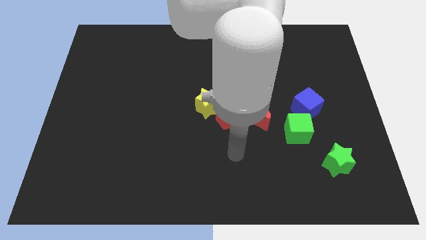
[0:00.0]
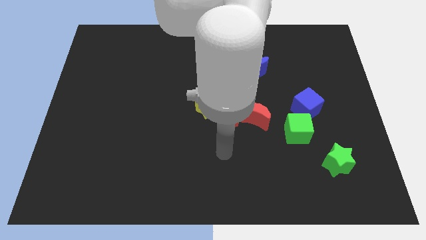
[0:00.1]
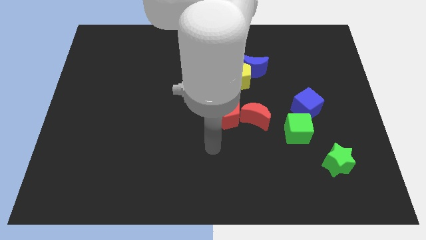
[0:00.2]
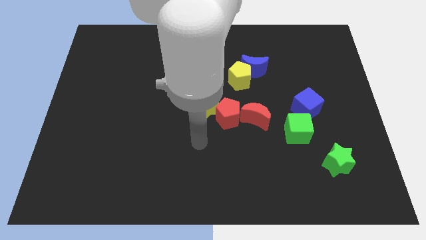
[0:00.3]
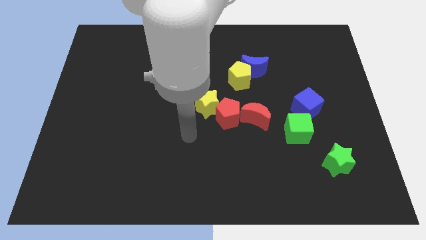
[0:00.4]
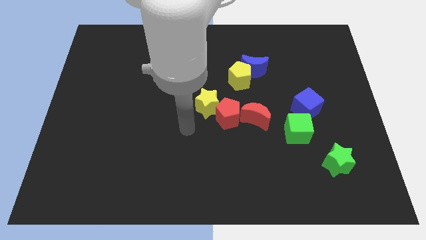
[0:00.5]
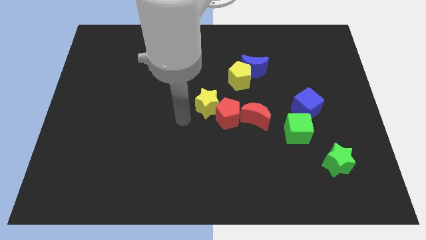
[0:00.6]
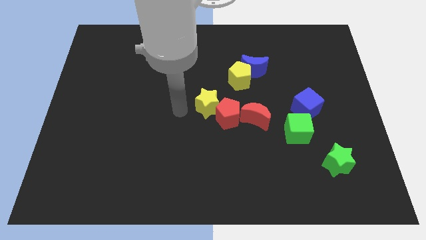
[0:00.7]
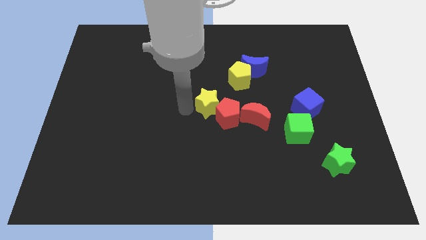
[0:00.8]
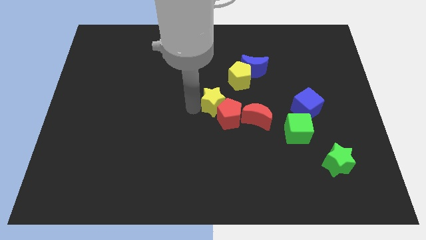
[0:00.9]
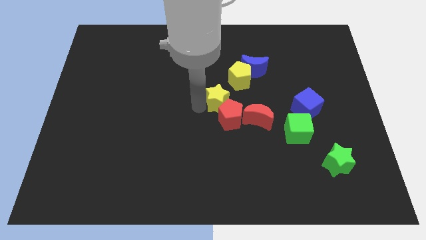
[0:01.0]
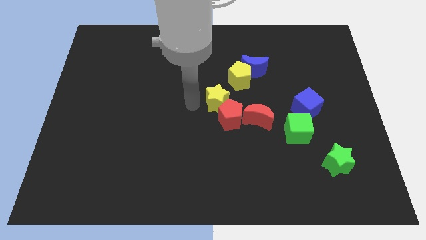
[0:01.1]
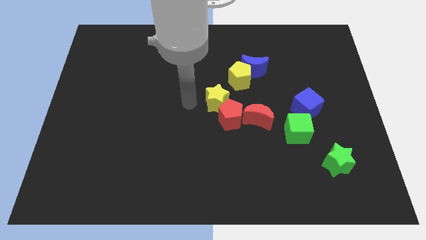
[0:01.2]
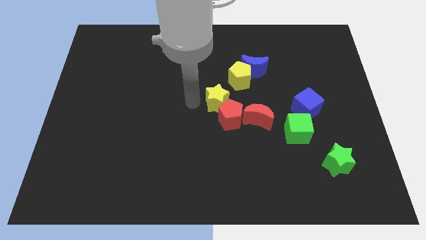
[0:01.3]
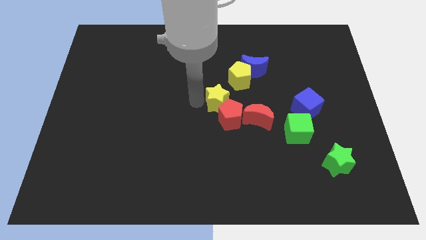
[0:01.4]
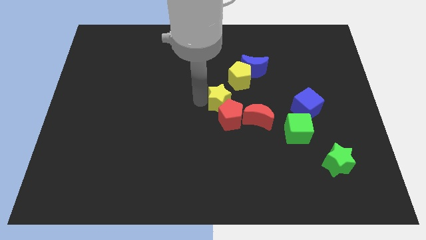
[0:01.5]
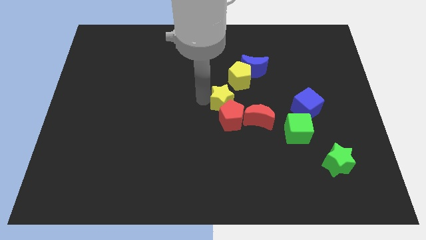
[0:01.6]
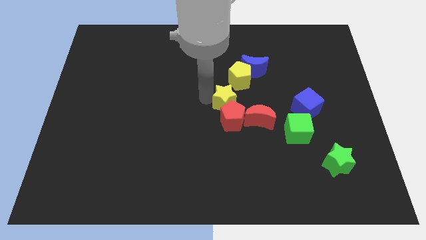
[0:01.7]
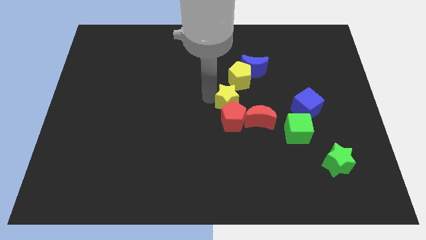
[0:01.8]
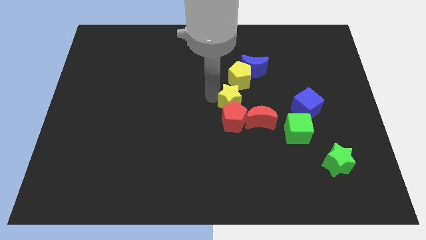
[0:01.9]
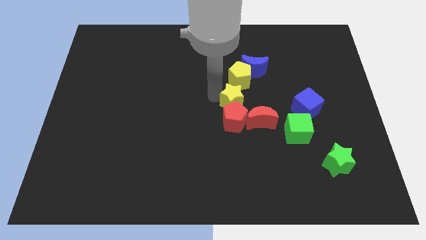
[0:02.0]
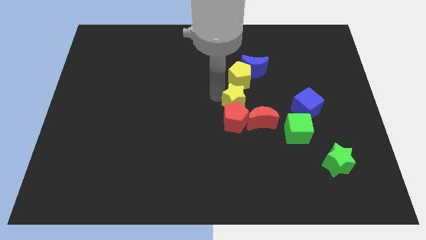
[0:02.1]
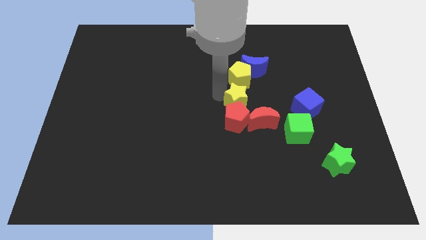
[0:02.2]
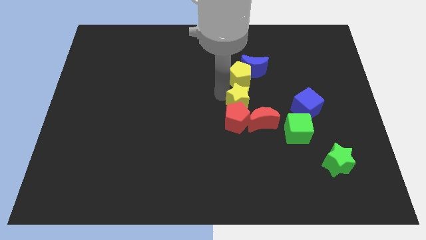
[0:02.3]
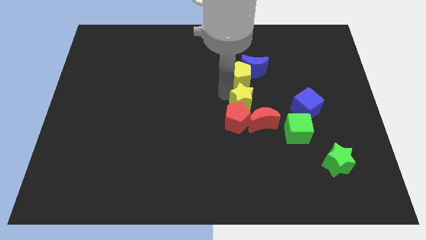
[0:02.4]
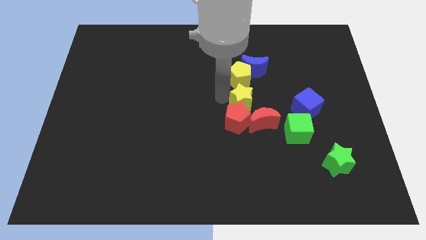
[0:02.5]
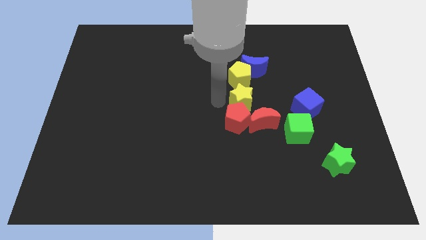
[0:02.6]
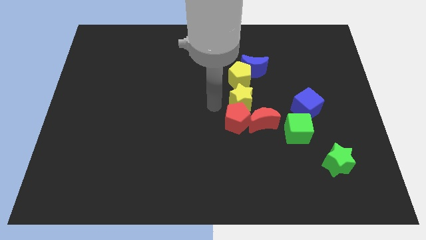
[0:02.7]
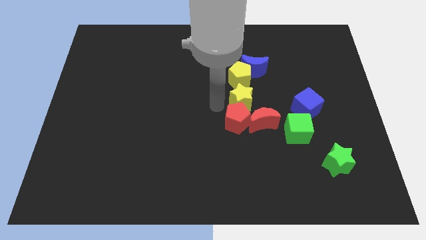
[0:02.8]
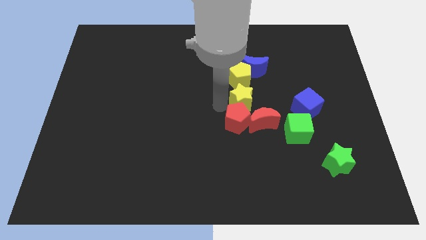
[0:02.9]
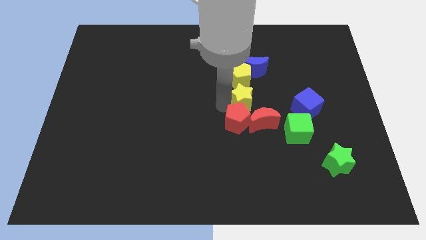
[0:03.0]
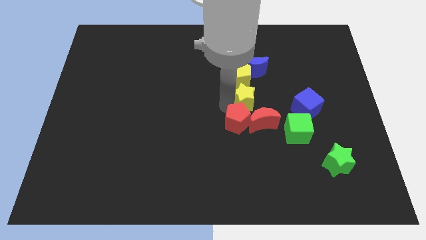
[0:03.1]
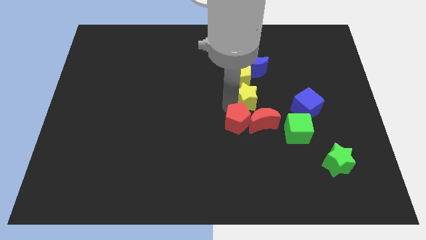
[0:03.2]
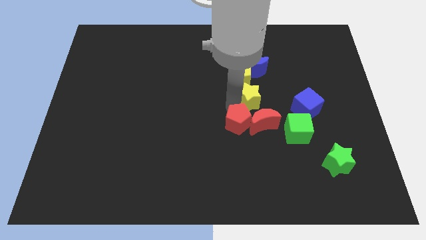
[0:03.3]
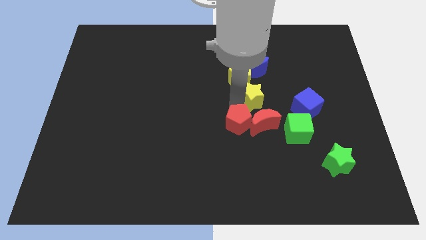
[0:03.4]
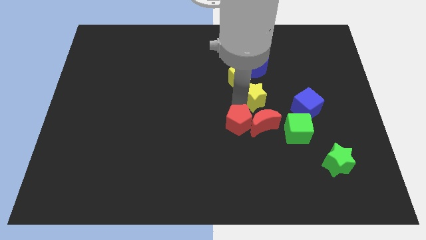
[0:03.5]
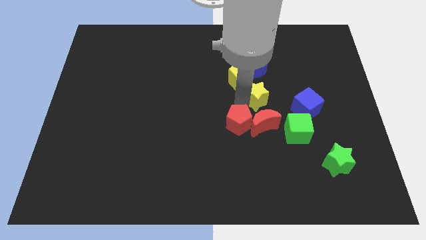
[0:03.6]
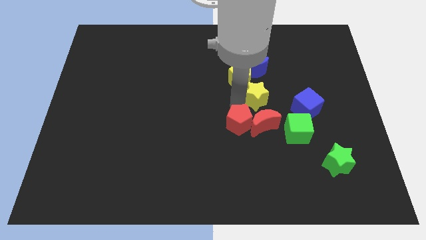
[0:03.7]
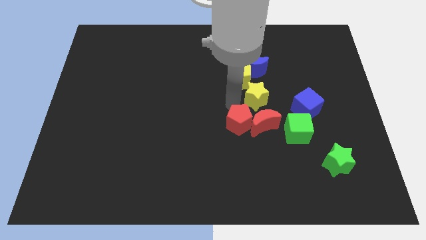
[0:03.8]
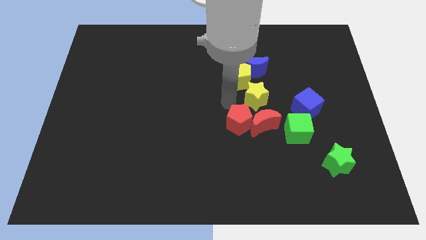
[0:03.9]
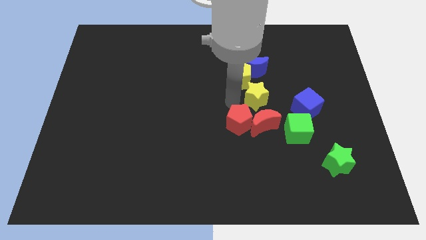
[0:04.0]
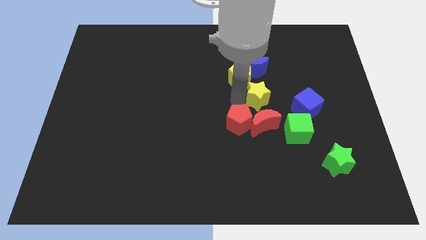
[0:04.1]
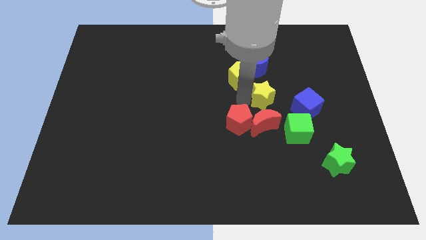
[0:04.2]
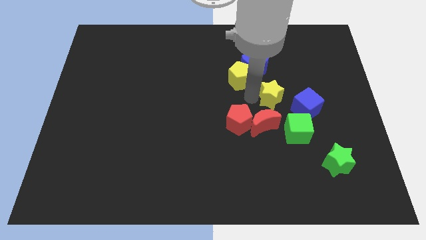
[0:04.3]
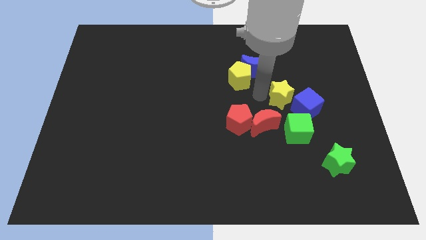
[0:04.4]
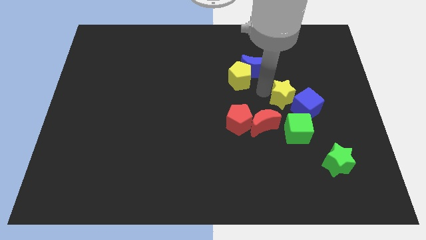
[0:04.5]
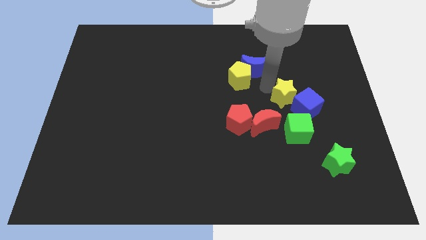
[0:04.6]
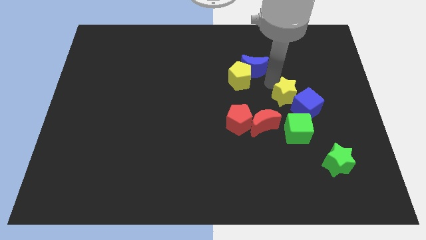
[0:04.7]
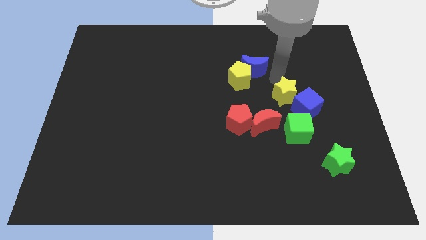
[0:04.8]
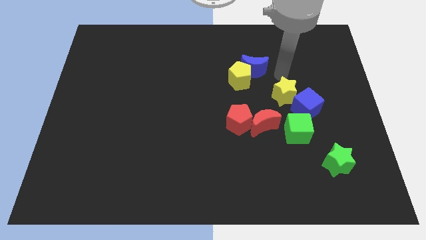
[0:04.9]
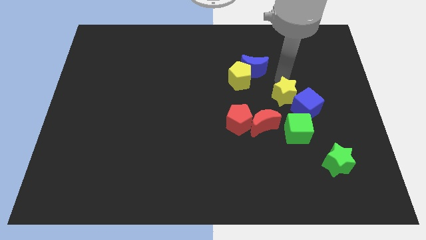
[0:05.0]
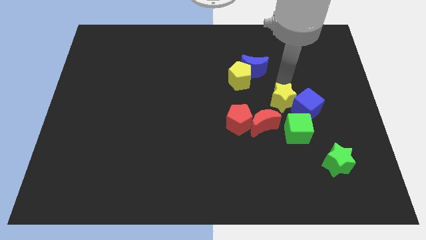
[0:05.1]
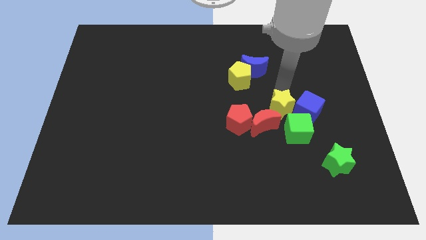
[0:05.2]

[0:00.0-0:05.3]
move the yellow star right of the red pentagon

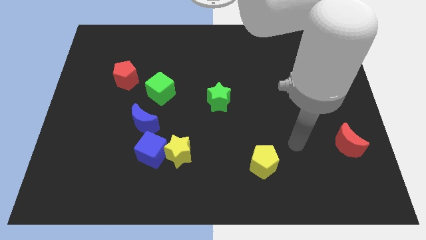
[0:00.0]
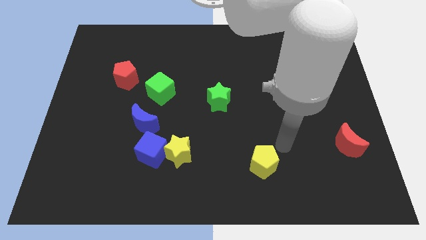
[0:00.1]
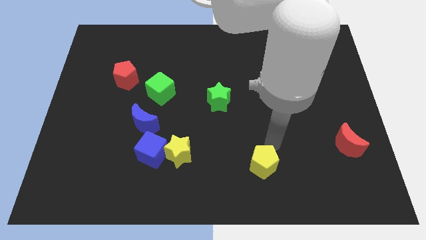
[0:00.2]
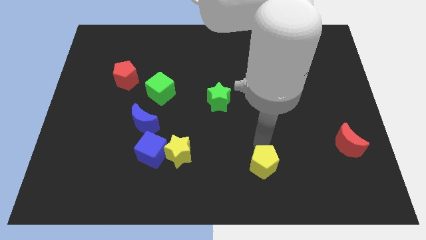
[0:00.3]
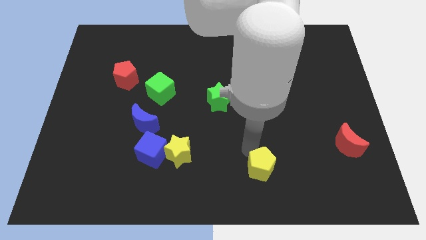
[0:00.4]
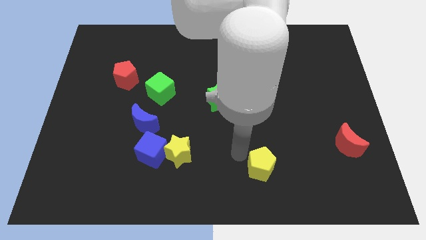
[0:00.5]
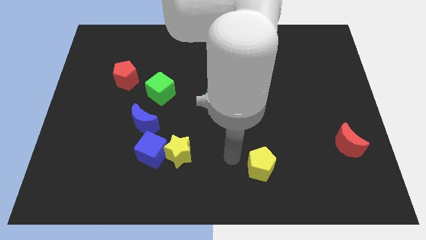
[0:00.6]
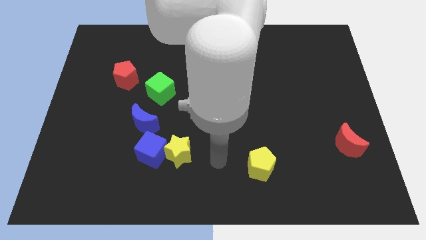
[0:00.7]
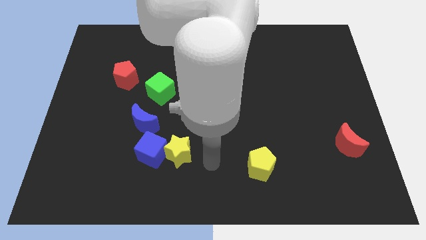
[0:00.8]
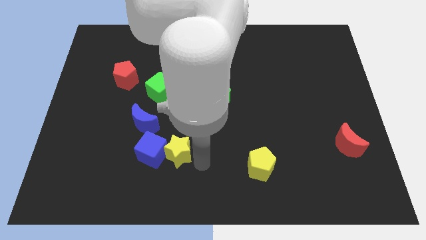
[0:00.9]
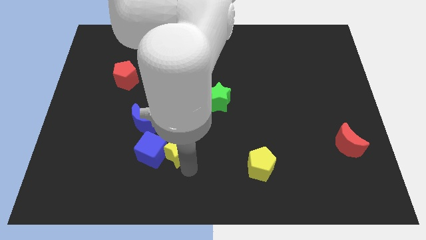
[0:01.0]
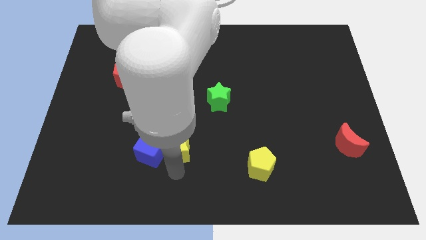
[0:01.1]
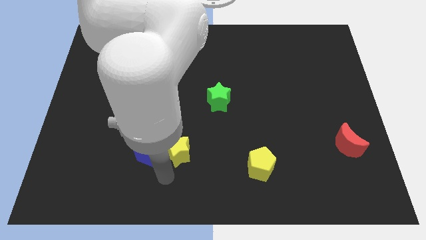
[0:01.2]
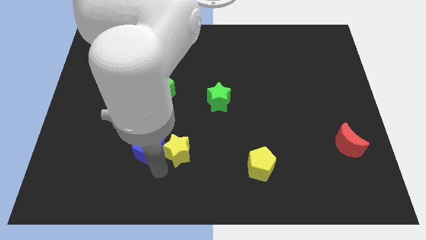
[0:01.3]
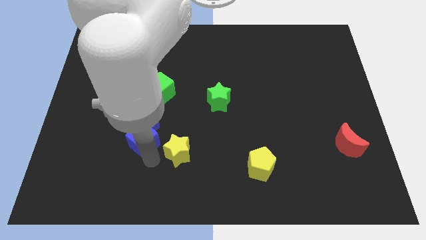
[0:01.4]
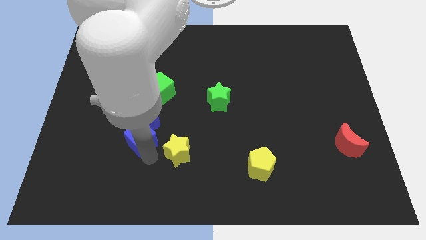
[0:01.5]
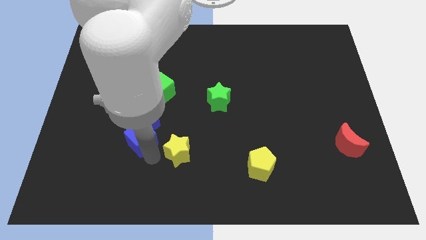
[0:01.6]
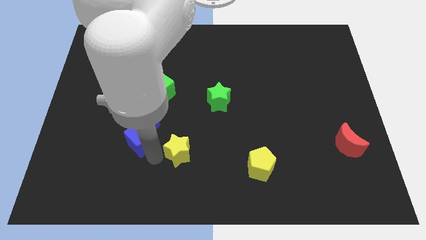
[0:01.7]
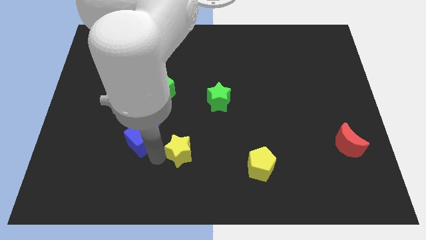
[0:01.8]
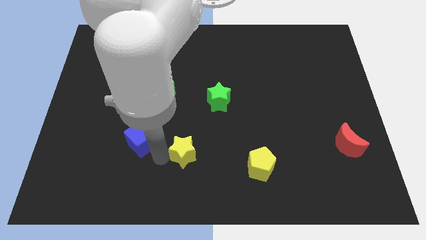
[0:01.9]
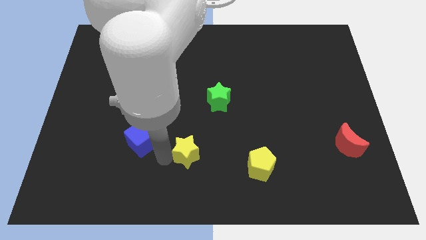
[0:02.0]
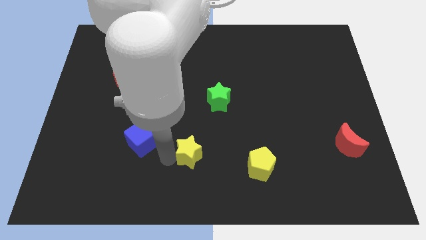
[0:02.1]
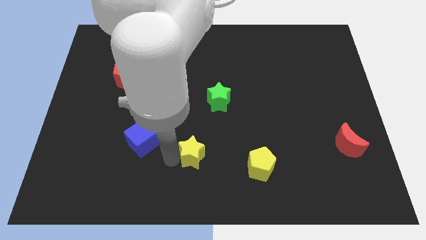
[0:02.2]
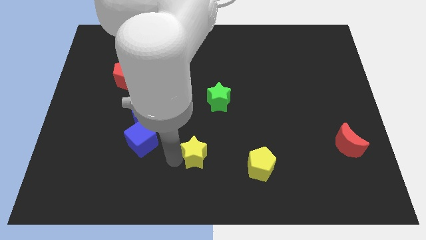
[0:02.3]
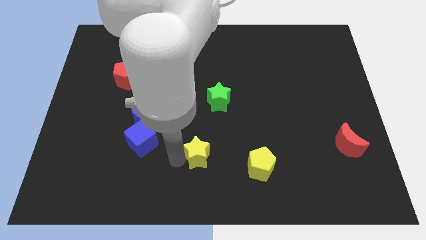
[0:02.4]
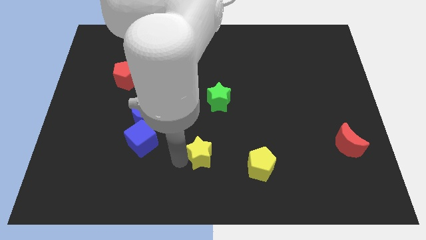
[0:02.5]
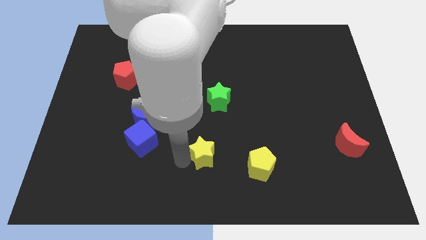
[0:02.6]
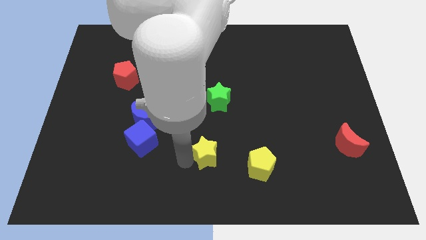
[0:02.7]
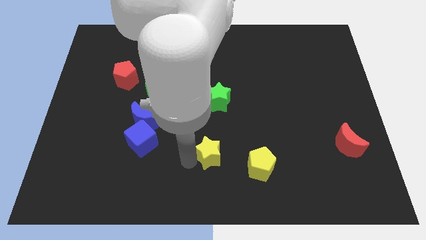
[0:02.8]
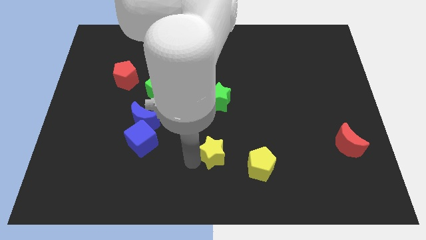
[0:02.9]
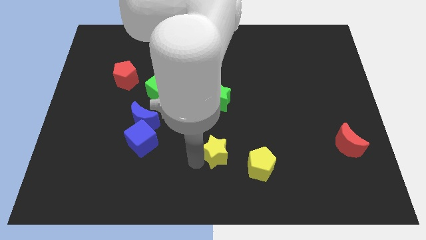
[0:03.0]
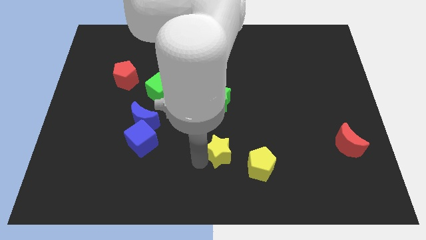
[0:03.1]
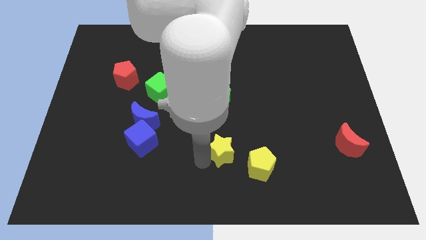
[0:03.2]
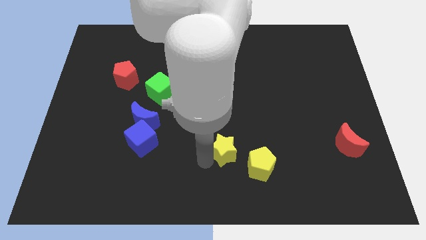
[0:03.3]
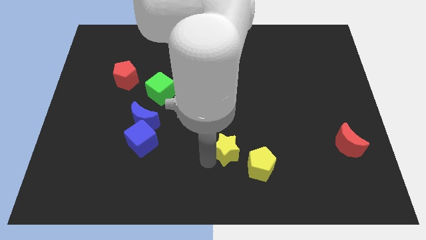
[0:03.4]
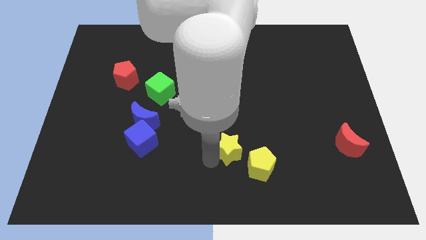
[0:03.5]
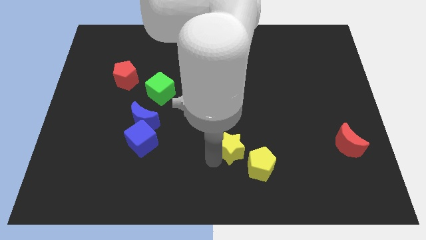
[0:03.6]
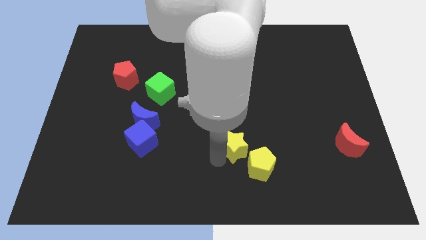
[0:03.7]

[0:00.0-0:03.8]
push the yellow star above the yellow pentagon
